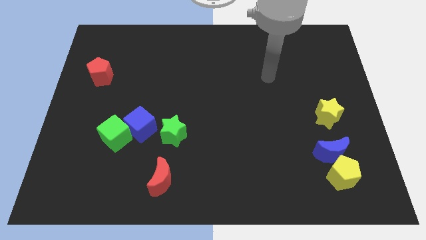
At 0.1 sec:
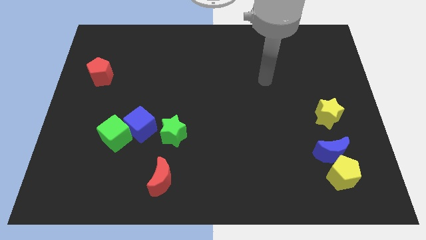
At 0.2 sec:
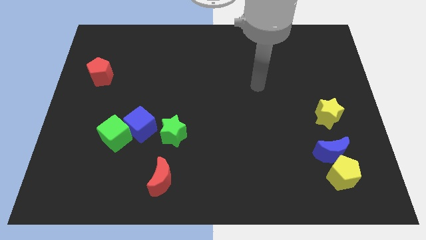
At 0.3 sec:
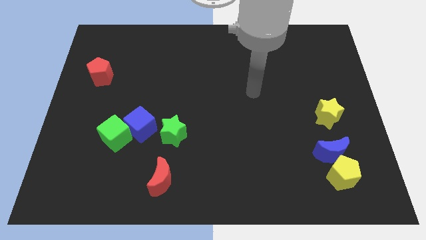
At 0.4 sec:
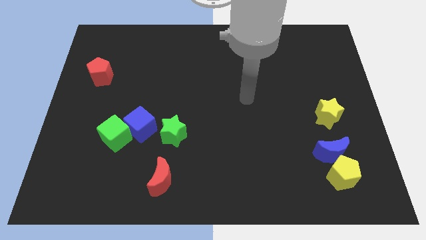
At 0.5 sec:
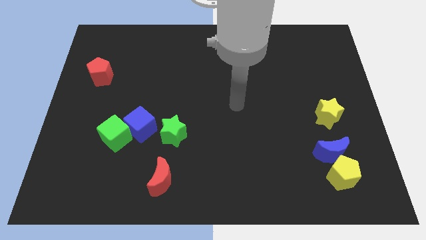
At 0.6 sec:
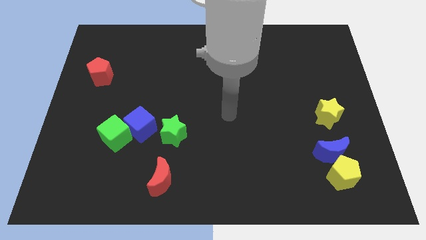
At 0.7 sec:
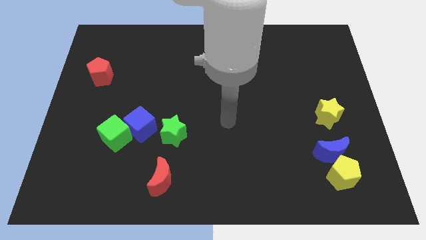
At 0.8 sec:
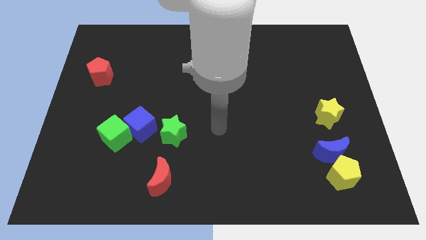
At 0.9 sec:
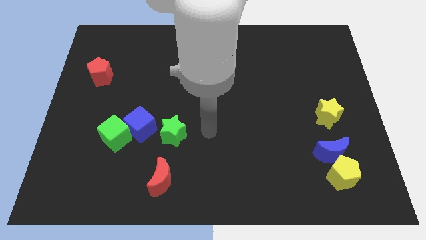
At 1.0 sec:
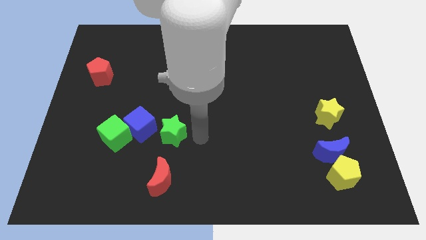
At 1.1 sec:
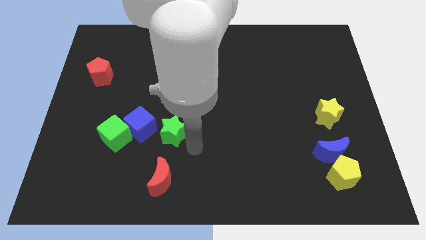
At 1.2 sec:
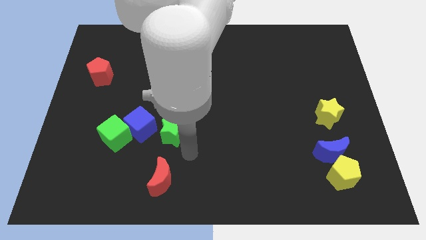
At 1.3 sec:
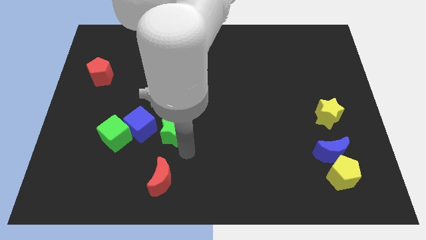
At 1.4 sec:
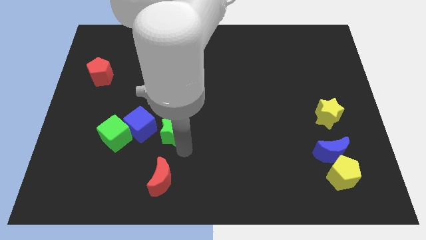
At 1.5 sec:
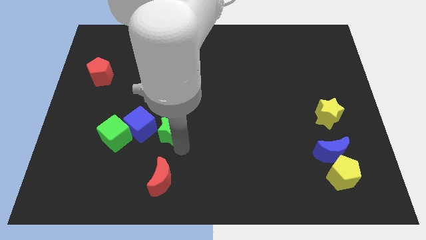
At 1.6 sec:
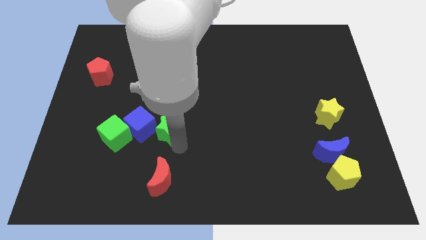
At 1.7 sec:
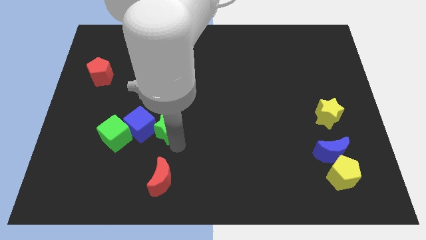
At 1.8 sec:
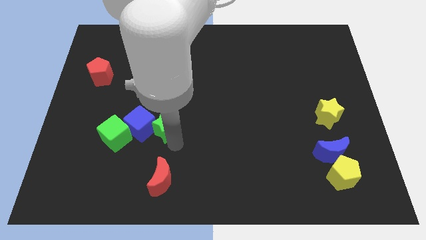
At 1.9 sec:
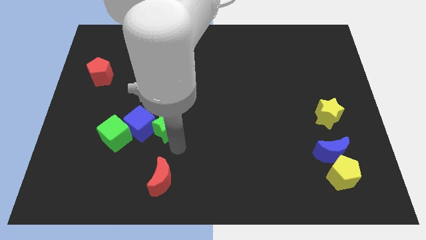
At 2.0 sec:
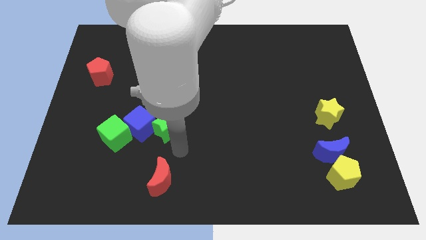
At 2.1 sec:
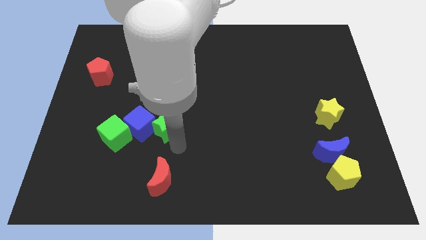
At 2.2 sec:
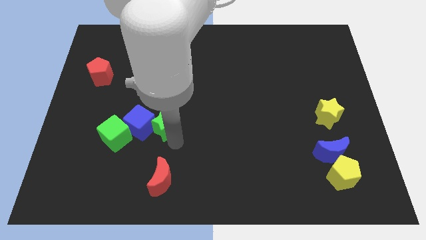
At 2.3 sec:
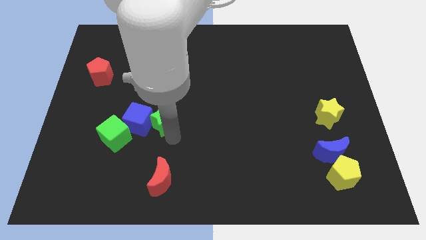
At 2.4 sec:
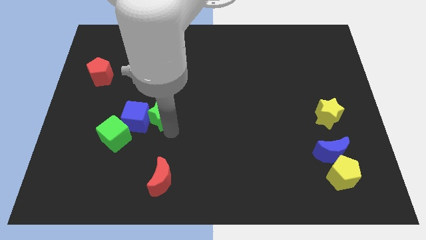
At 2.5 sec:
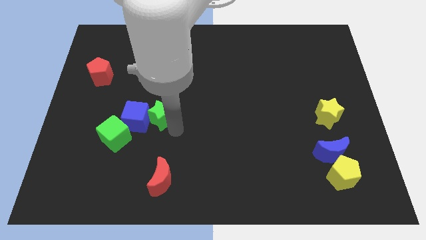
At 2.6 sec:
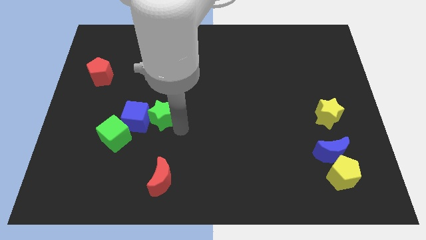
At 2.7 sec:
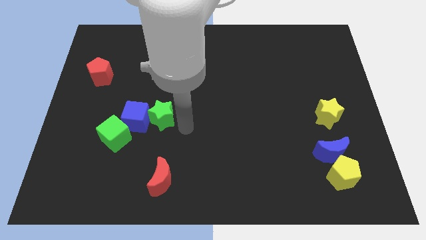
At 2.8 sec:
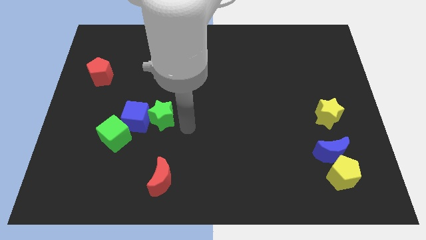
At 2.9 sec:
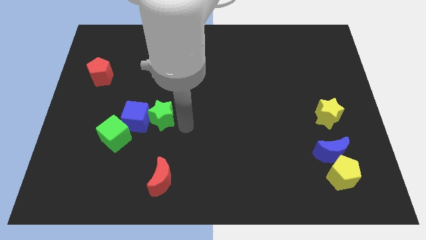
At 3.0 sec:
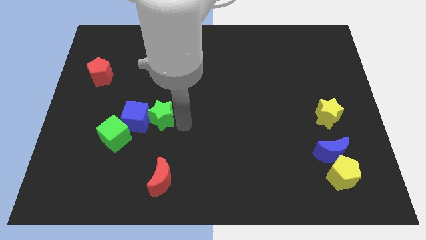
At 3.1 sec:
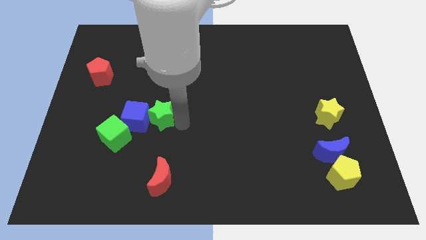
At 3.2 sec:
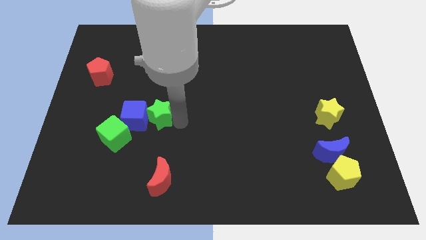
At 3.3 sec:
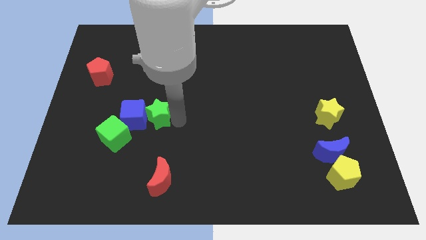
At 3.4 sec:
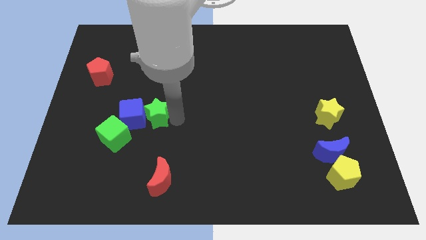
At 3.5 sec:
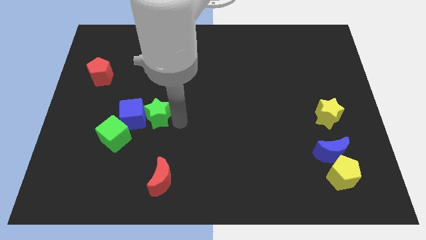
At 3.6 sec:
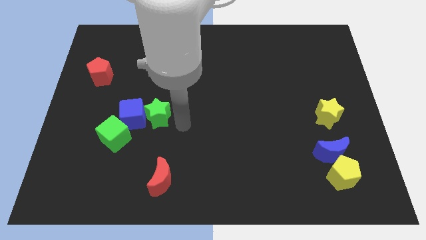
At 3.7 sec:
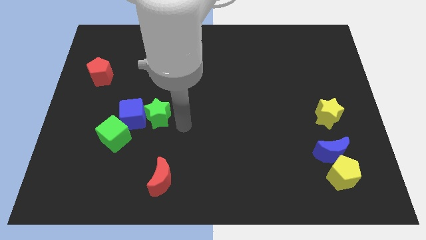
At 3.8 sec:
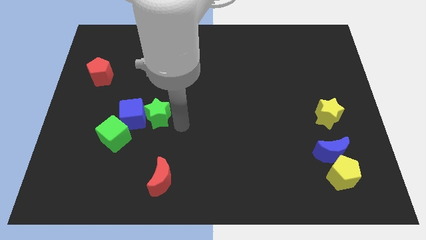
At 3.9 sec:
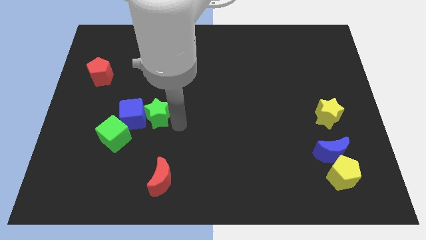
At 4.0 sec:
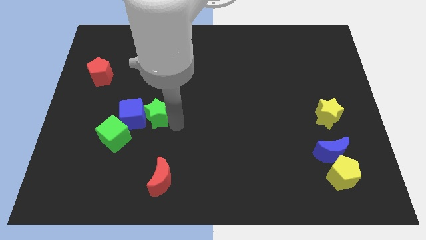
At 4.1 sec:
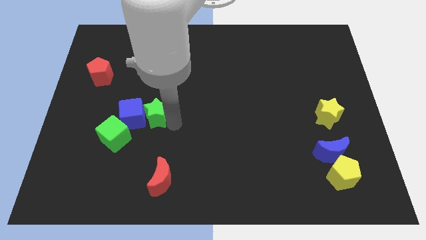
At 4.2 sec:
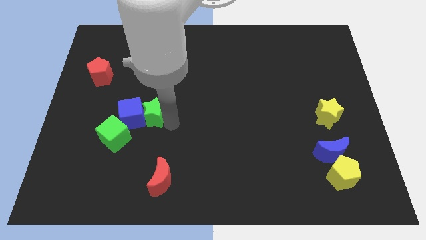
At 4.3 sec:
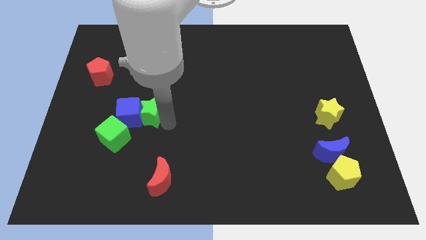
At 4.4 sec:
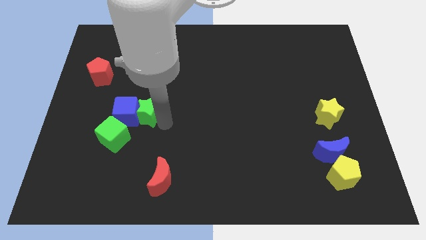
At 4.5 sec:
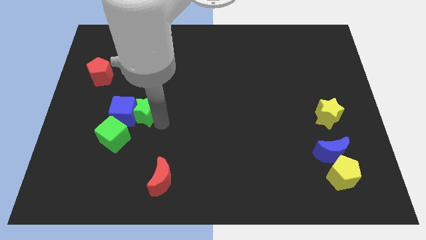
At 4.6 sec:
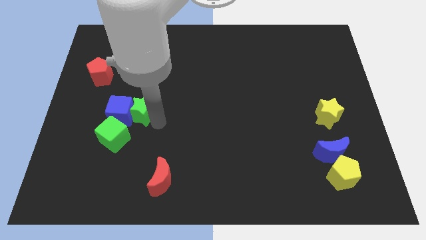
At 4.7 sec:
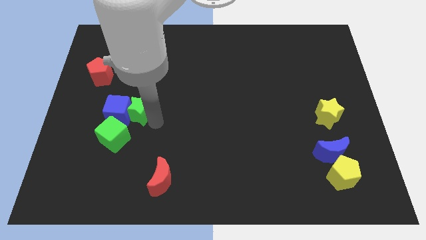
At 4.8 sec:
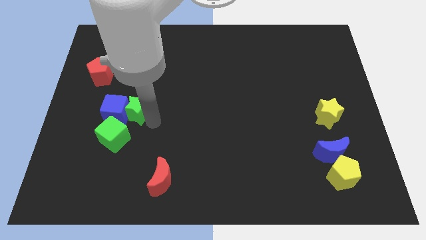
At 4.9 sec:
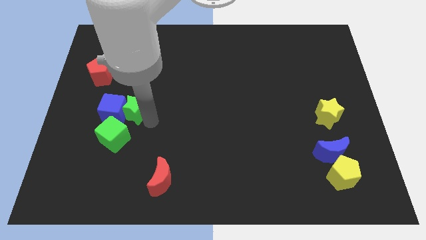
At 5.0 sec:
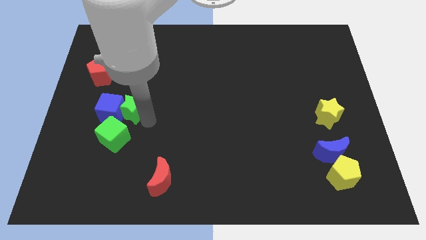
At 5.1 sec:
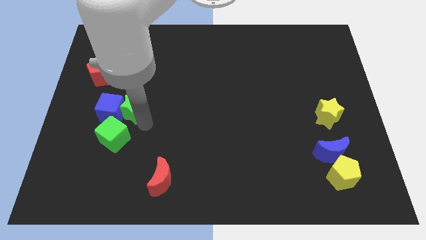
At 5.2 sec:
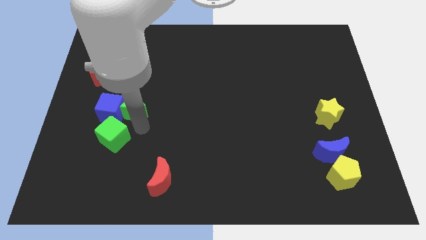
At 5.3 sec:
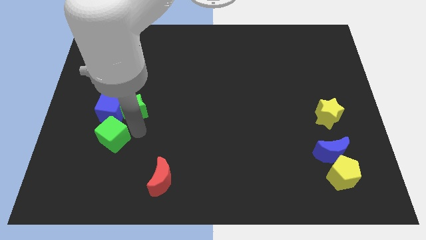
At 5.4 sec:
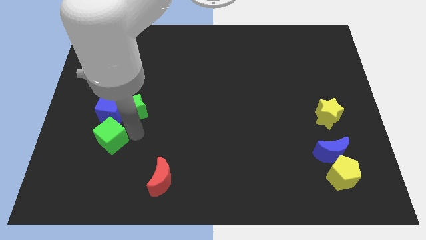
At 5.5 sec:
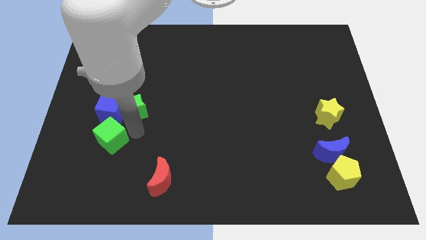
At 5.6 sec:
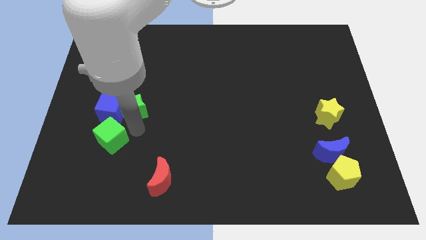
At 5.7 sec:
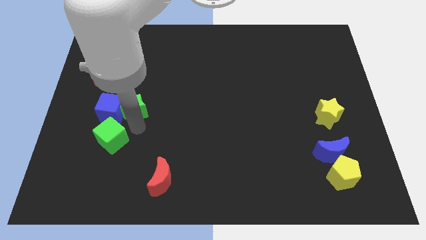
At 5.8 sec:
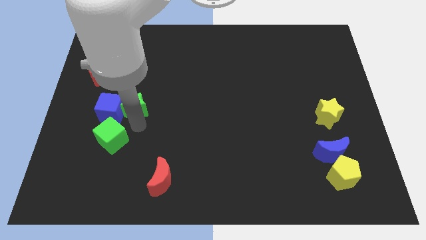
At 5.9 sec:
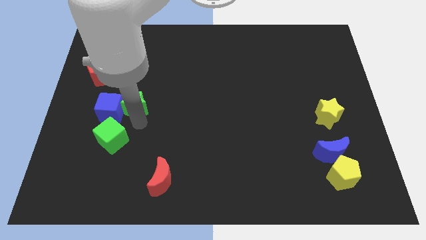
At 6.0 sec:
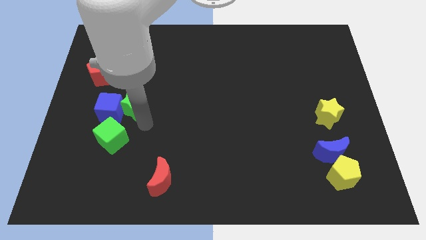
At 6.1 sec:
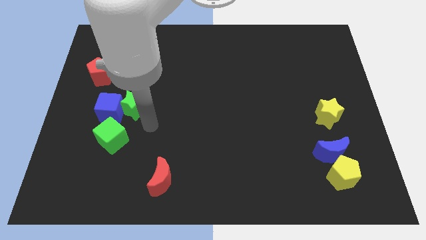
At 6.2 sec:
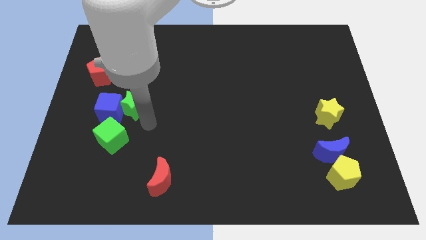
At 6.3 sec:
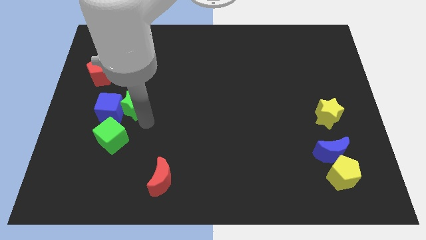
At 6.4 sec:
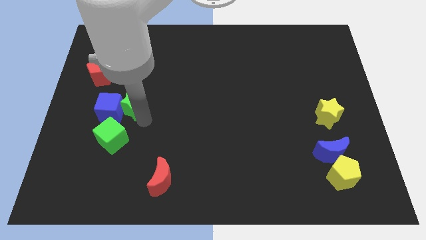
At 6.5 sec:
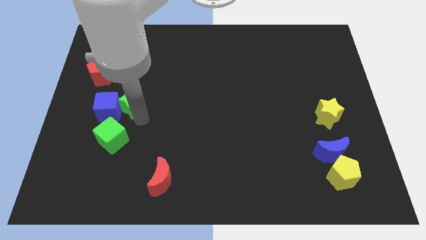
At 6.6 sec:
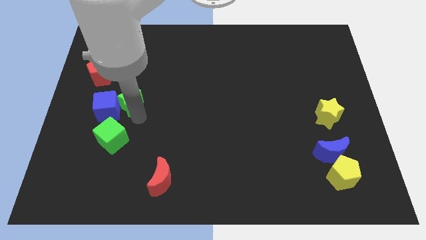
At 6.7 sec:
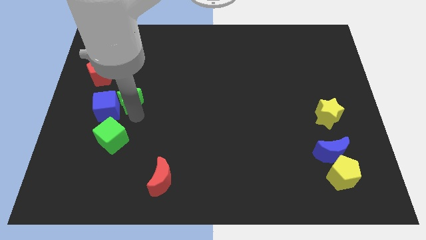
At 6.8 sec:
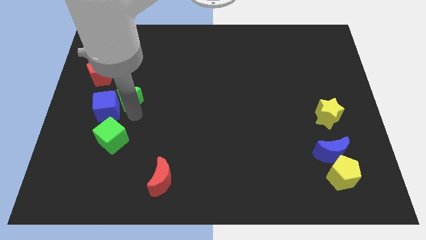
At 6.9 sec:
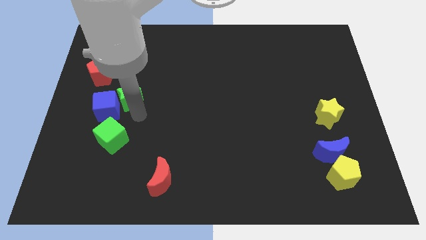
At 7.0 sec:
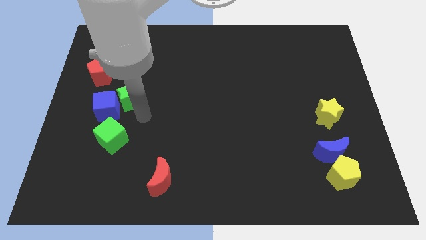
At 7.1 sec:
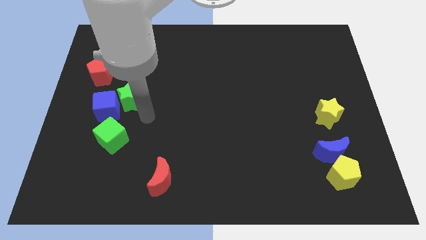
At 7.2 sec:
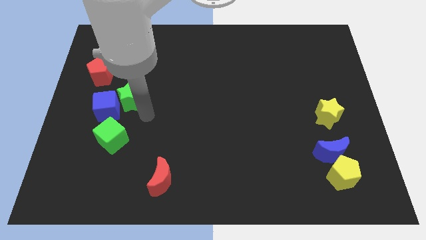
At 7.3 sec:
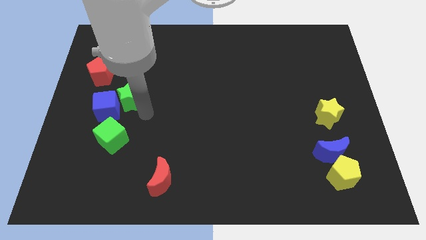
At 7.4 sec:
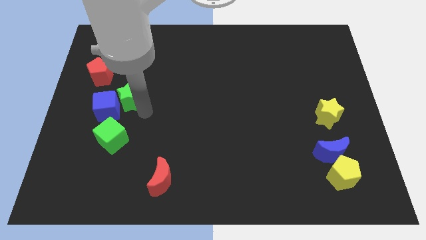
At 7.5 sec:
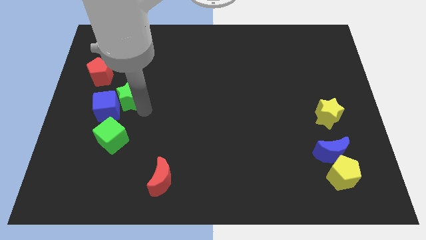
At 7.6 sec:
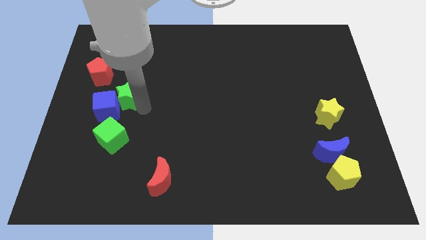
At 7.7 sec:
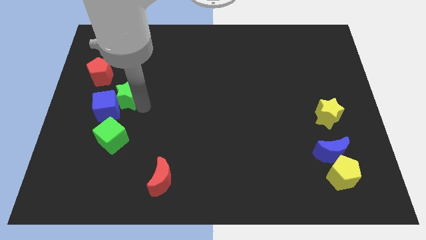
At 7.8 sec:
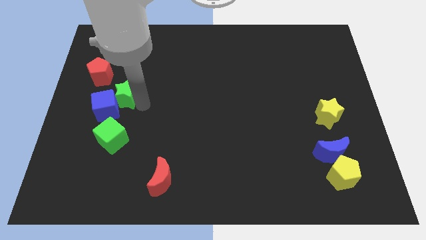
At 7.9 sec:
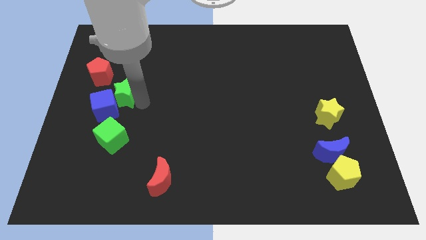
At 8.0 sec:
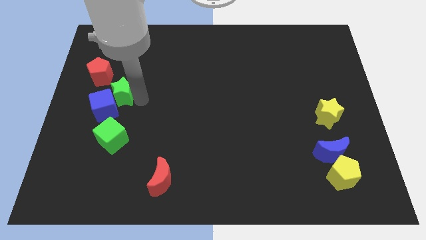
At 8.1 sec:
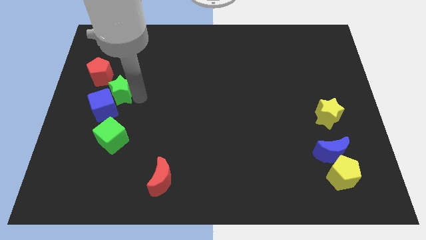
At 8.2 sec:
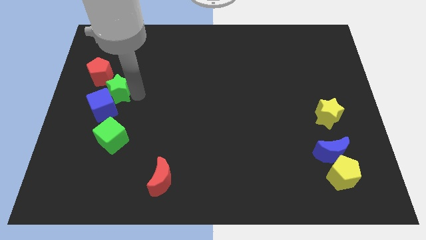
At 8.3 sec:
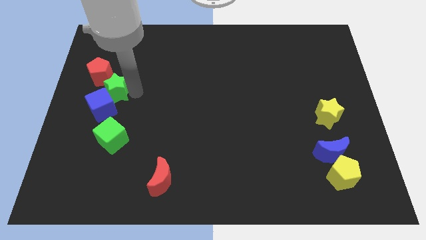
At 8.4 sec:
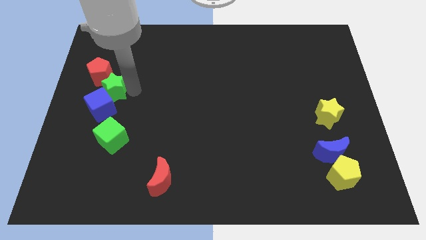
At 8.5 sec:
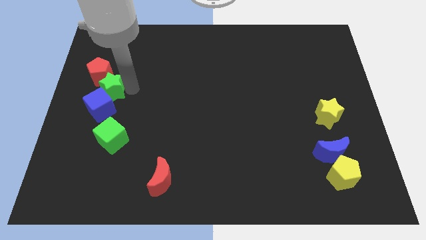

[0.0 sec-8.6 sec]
slide the green star to the red pentagon
